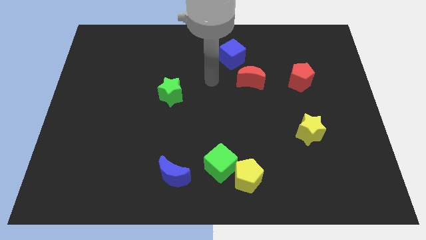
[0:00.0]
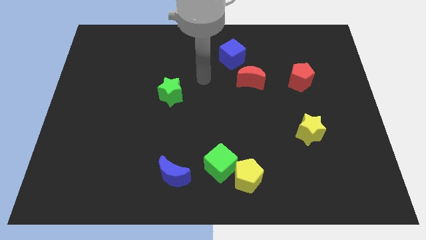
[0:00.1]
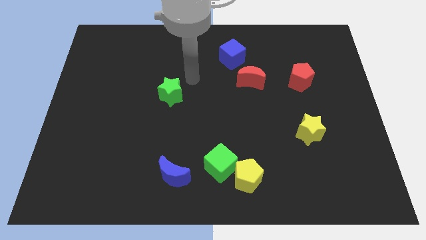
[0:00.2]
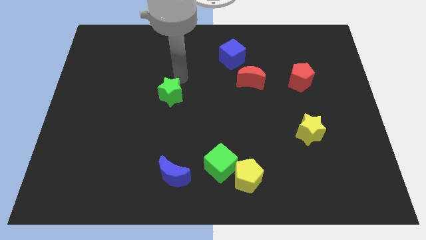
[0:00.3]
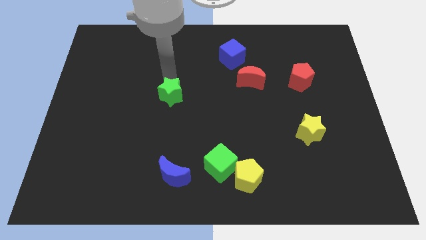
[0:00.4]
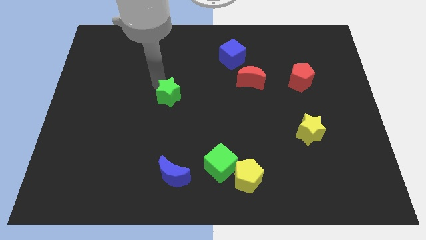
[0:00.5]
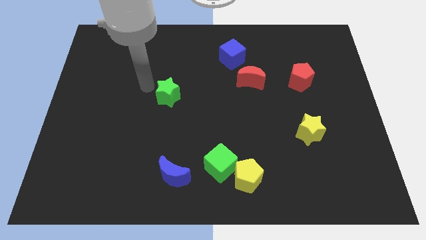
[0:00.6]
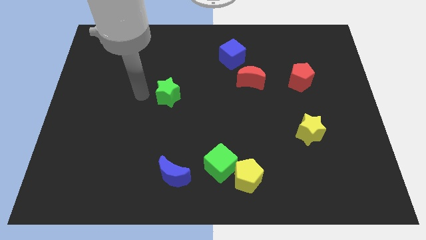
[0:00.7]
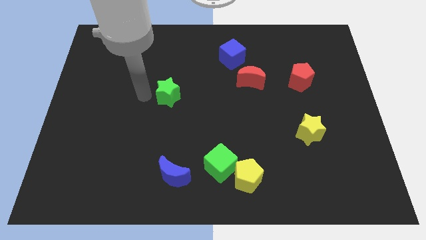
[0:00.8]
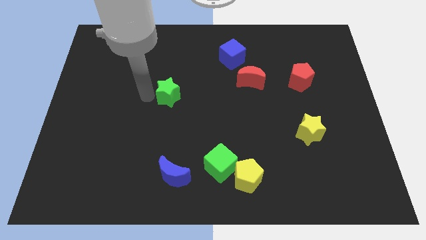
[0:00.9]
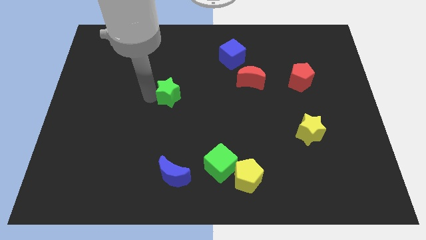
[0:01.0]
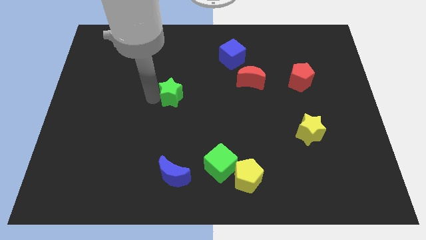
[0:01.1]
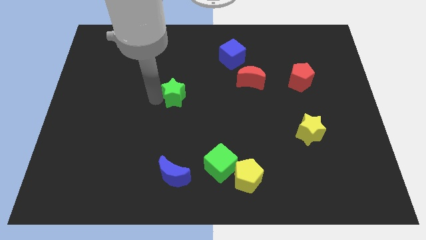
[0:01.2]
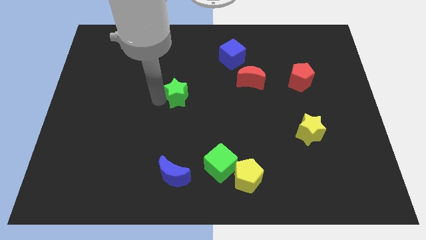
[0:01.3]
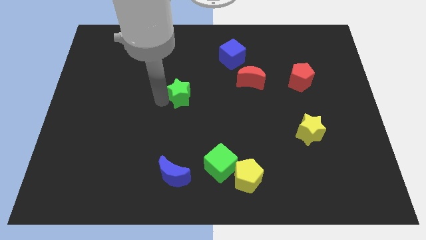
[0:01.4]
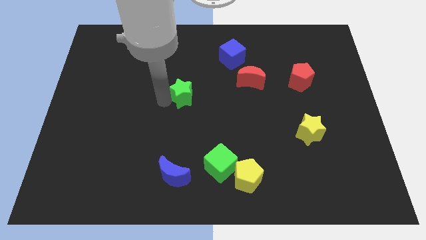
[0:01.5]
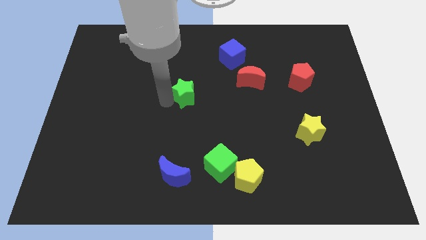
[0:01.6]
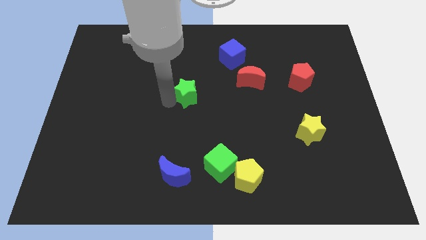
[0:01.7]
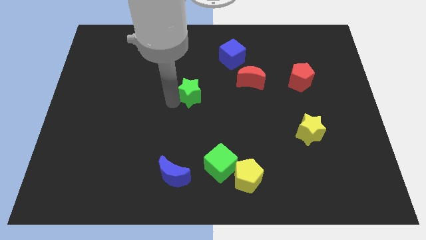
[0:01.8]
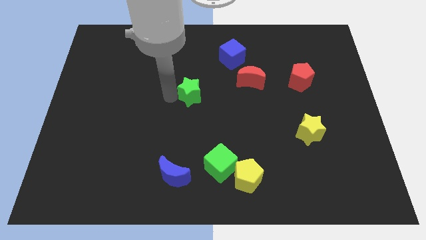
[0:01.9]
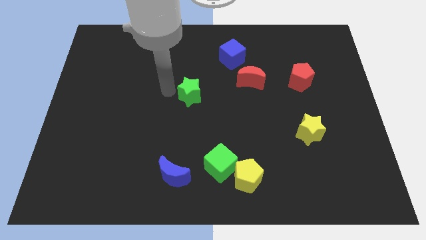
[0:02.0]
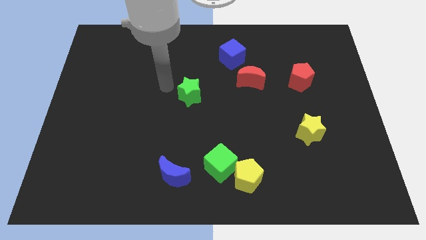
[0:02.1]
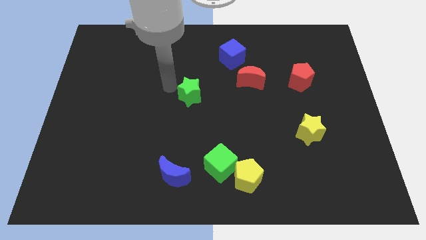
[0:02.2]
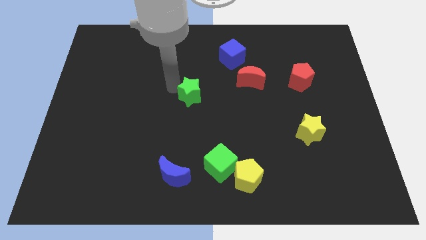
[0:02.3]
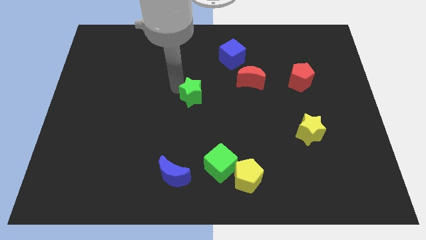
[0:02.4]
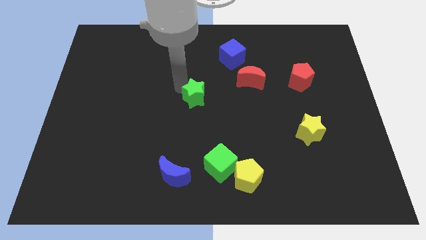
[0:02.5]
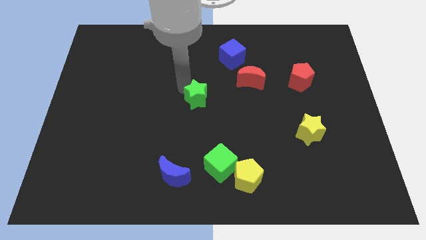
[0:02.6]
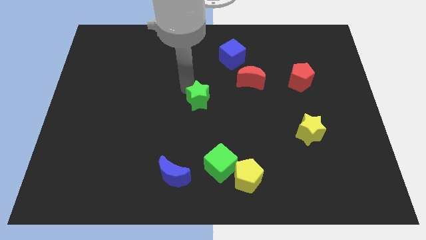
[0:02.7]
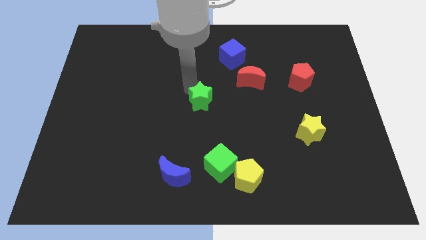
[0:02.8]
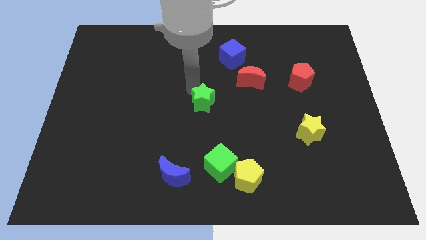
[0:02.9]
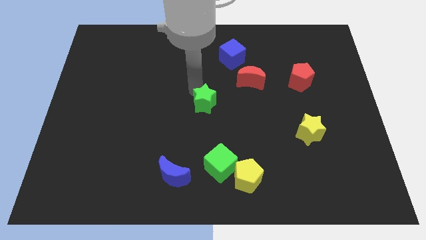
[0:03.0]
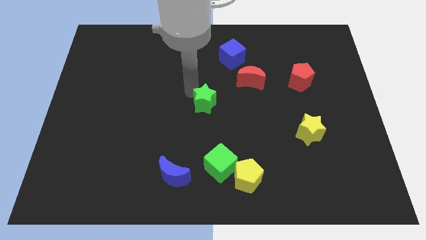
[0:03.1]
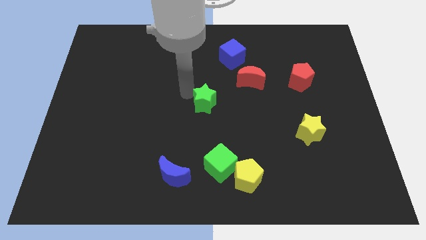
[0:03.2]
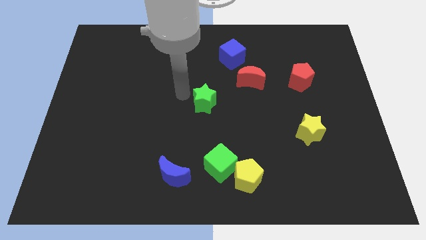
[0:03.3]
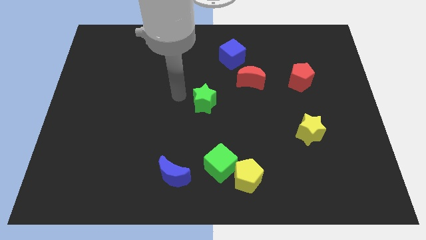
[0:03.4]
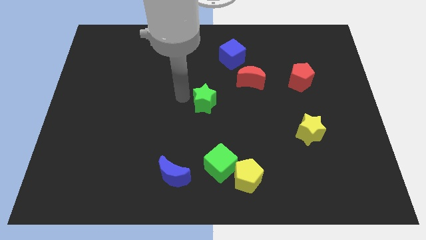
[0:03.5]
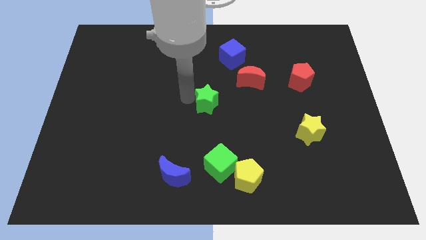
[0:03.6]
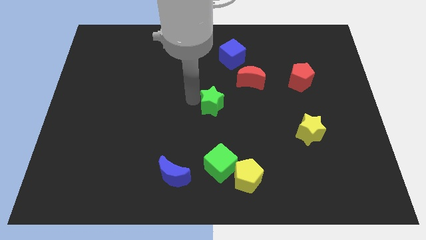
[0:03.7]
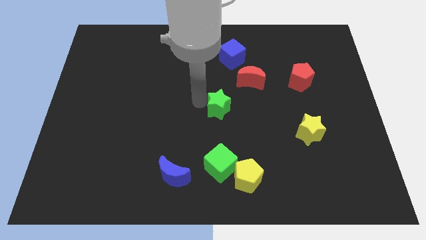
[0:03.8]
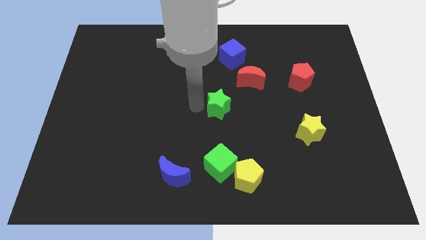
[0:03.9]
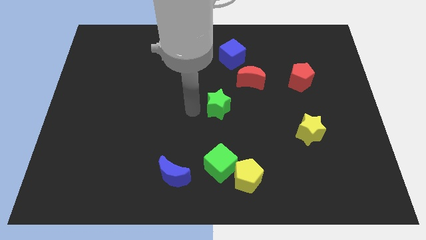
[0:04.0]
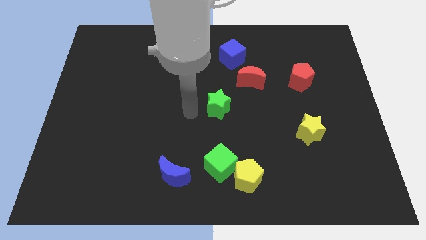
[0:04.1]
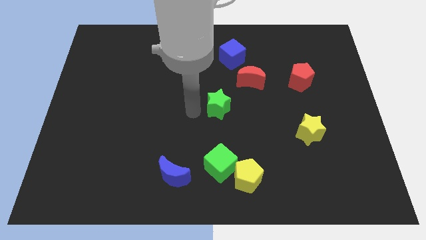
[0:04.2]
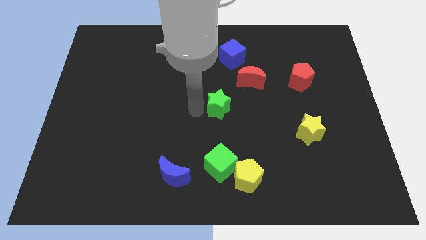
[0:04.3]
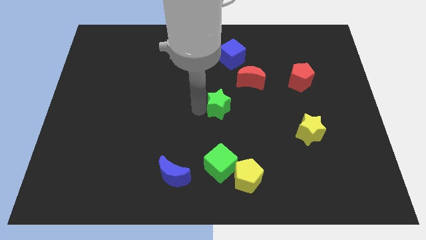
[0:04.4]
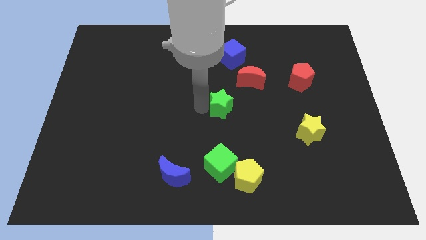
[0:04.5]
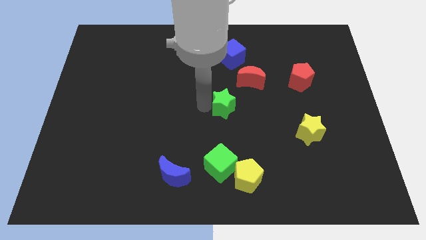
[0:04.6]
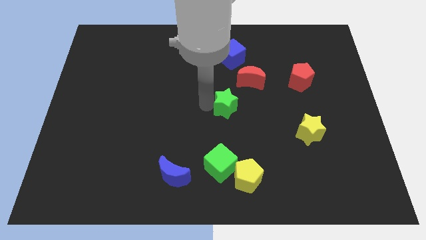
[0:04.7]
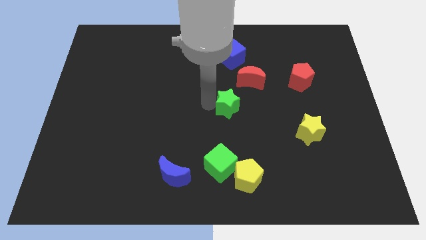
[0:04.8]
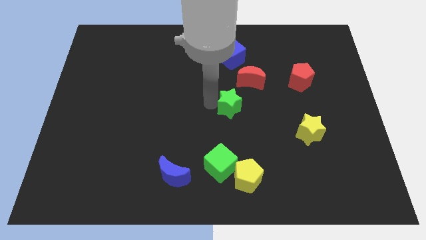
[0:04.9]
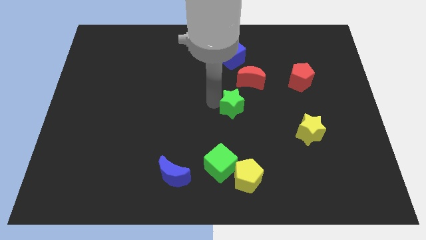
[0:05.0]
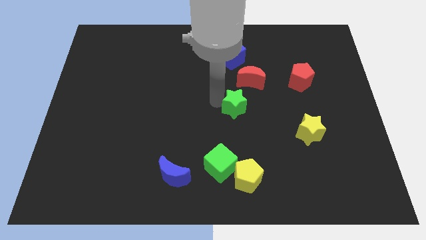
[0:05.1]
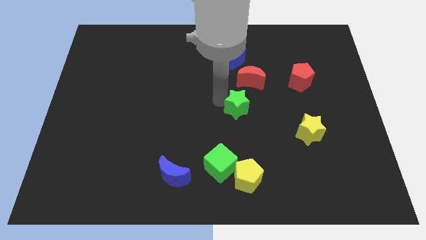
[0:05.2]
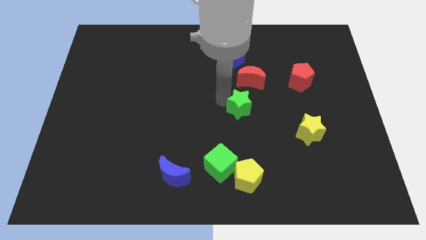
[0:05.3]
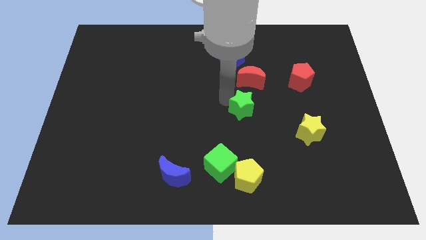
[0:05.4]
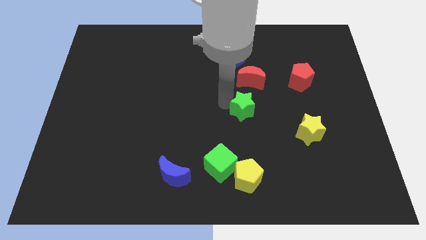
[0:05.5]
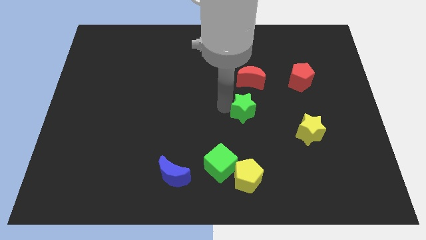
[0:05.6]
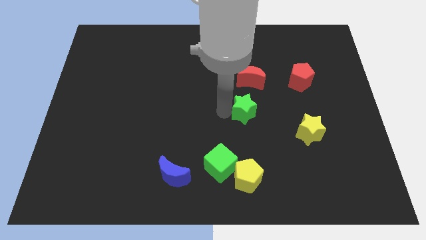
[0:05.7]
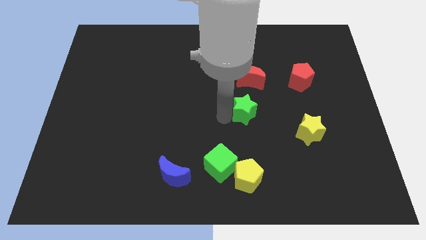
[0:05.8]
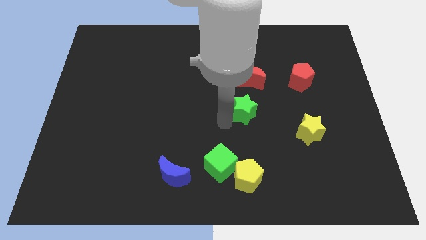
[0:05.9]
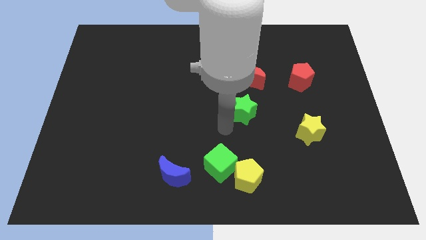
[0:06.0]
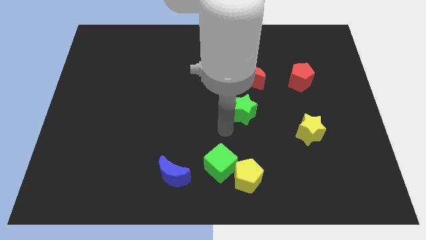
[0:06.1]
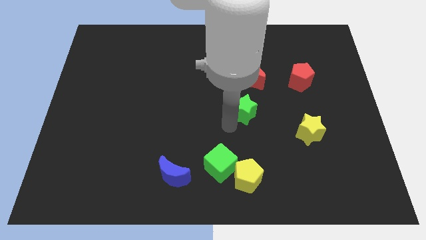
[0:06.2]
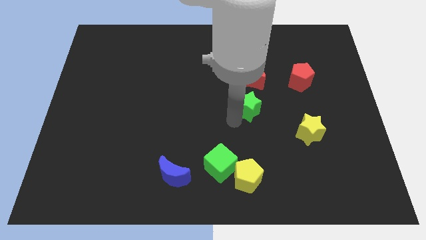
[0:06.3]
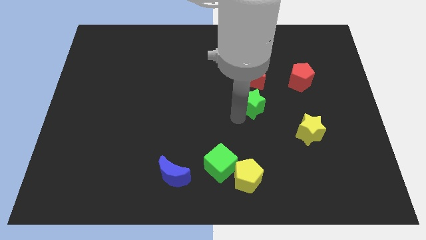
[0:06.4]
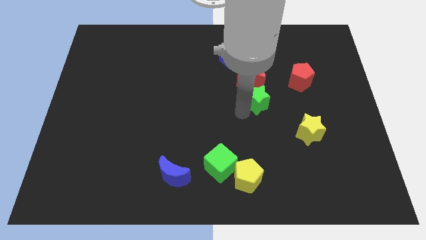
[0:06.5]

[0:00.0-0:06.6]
move the green star to the bottom right of the red moon

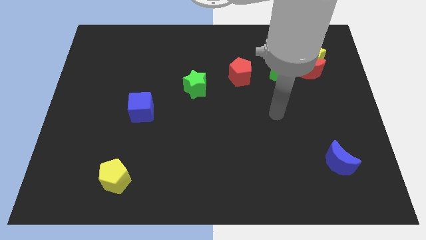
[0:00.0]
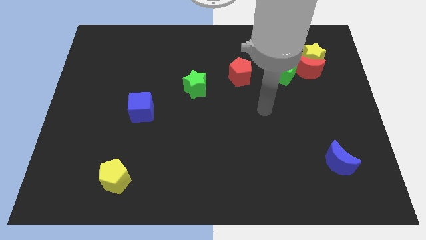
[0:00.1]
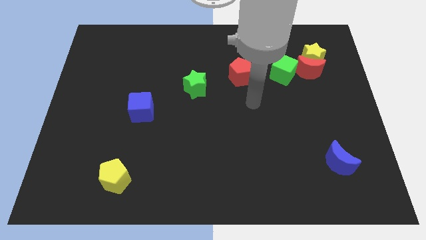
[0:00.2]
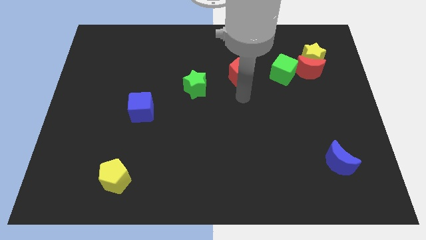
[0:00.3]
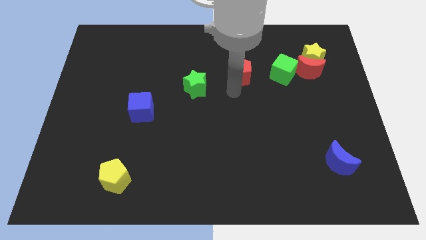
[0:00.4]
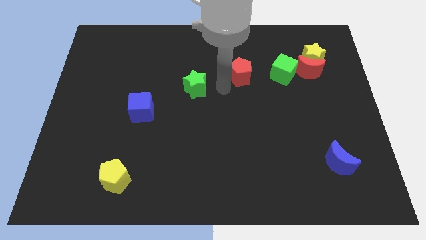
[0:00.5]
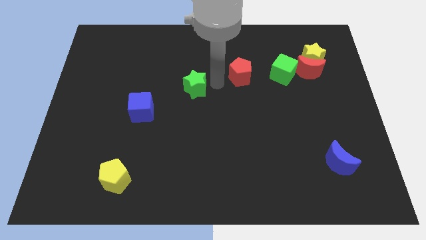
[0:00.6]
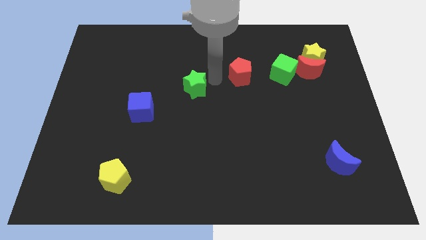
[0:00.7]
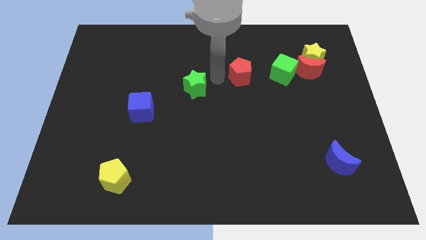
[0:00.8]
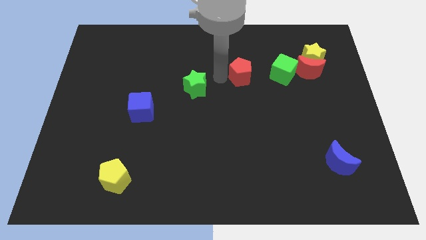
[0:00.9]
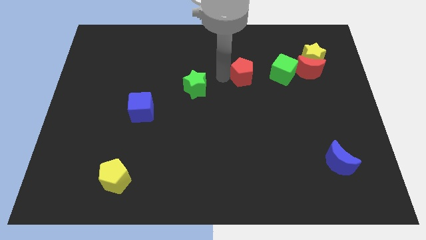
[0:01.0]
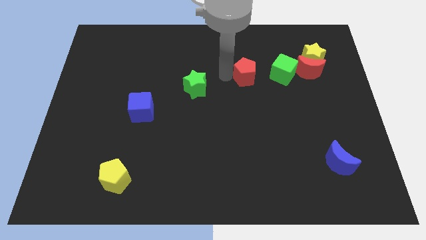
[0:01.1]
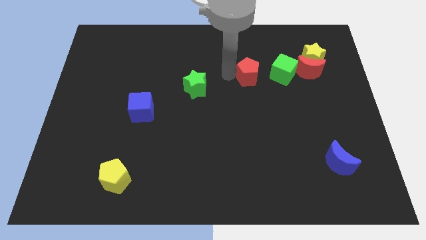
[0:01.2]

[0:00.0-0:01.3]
slide the red pentagon just left of the red moon
